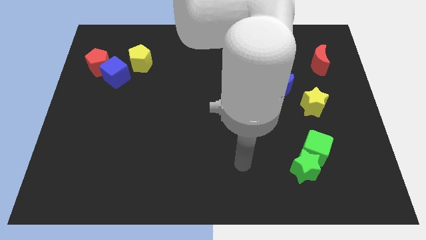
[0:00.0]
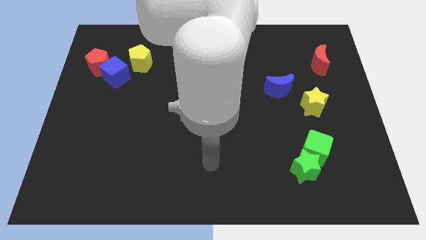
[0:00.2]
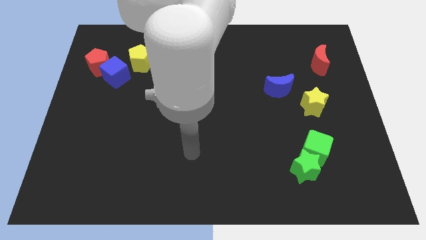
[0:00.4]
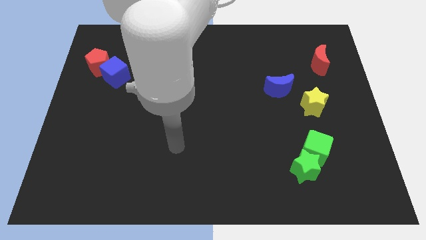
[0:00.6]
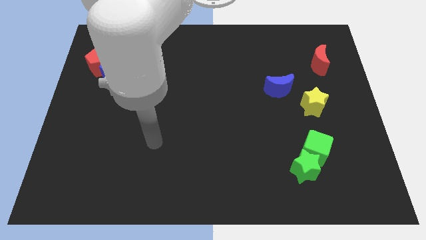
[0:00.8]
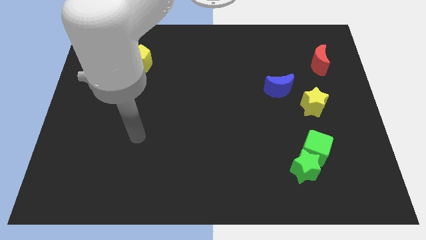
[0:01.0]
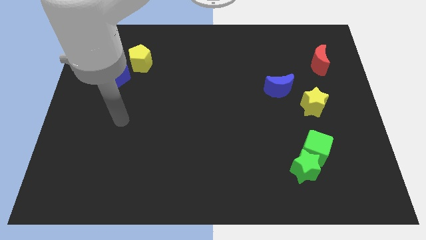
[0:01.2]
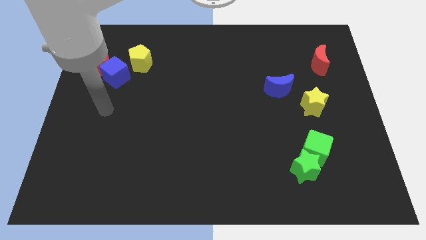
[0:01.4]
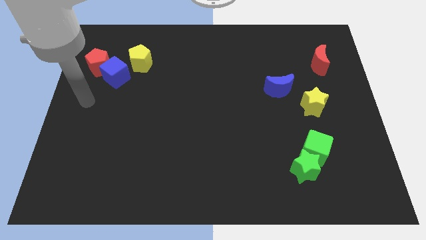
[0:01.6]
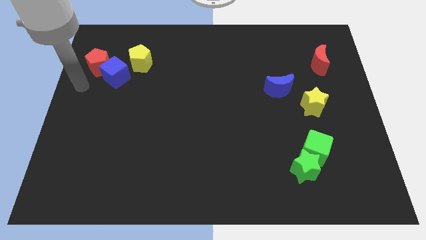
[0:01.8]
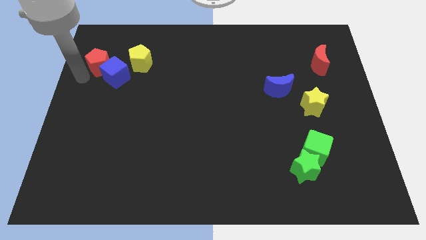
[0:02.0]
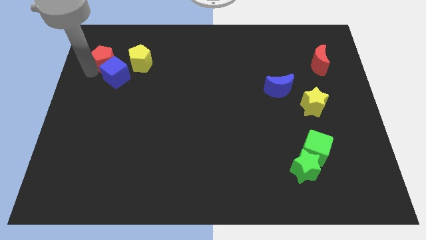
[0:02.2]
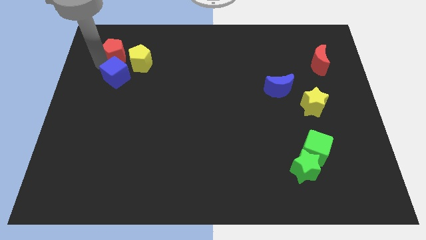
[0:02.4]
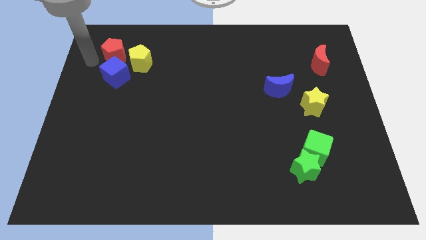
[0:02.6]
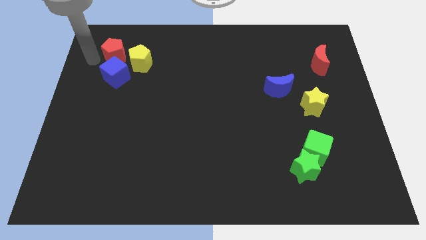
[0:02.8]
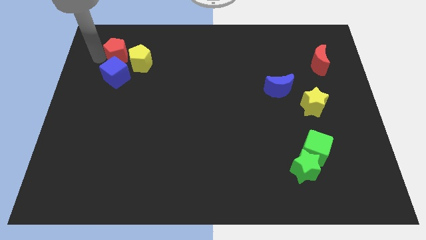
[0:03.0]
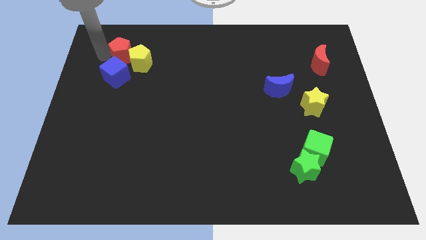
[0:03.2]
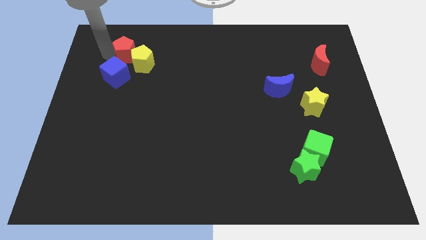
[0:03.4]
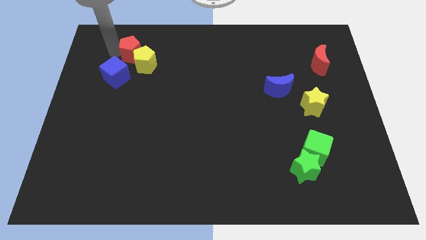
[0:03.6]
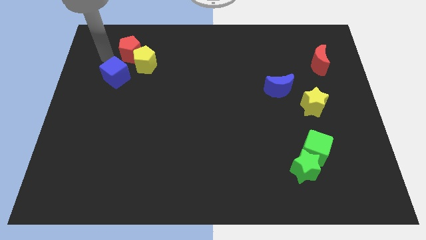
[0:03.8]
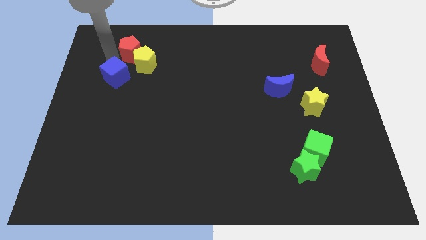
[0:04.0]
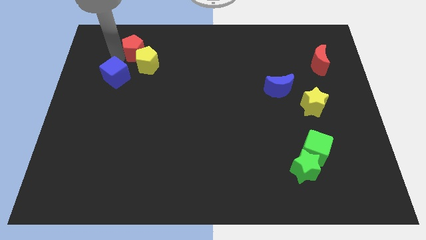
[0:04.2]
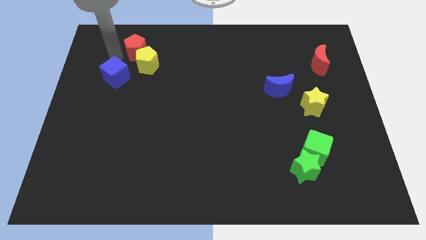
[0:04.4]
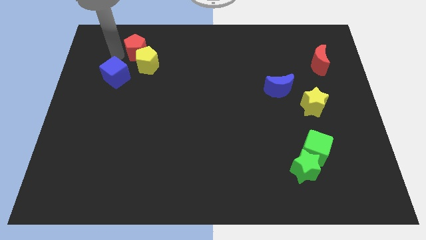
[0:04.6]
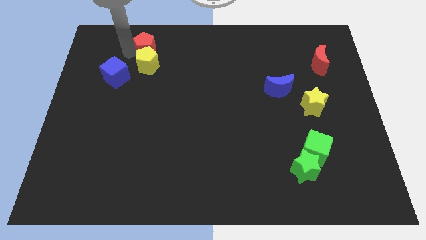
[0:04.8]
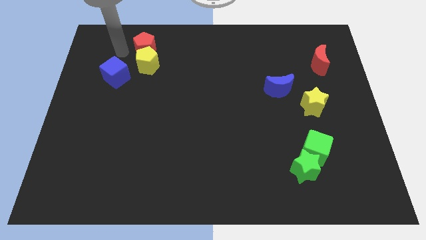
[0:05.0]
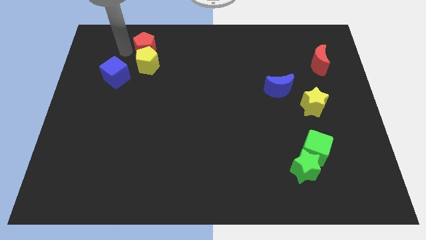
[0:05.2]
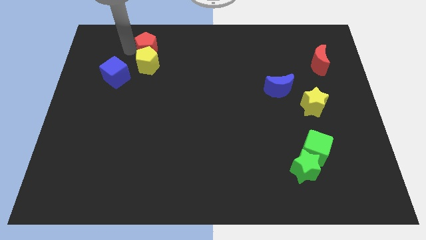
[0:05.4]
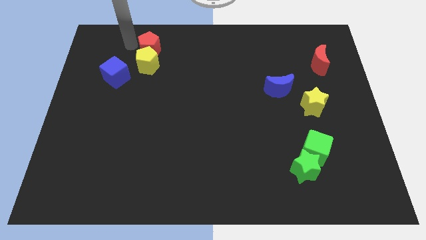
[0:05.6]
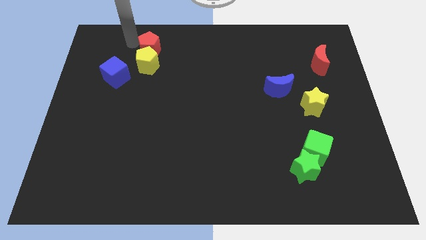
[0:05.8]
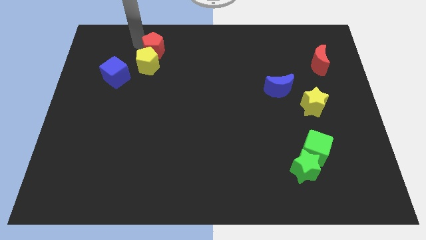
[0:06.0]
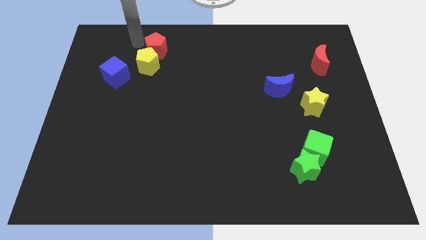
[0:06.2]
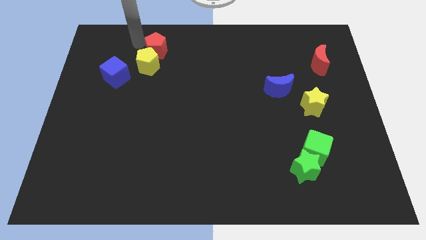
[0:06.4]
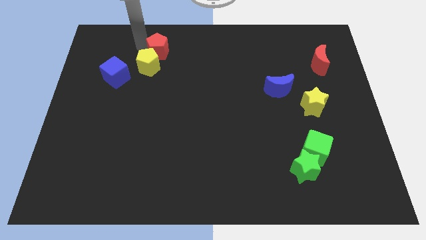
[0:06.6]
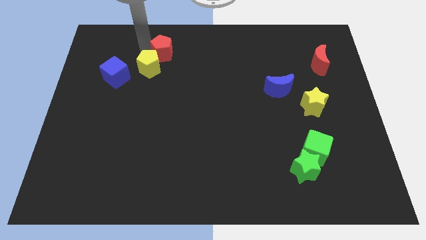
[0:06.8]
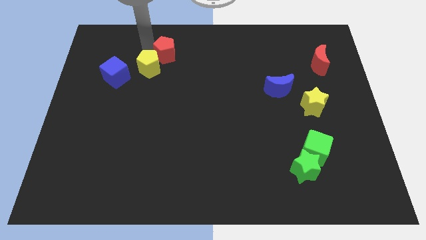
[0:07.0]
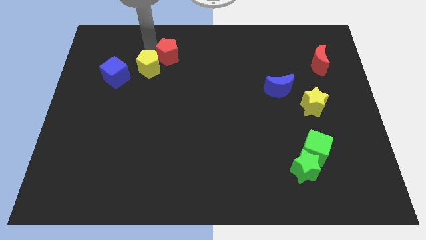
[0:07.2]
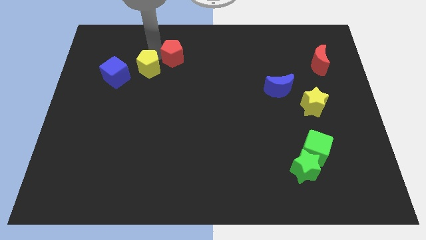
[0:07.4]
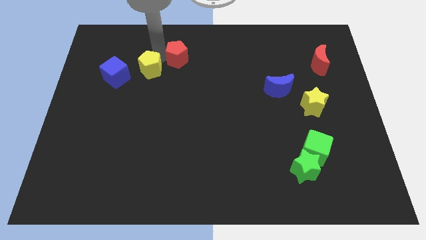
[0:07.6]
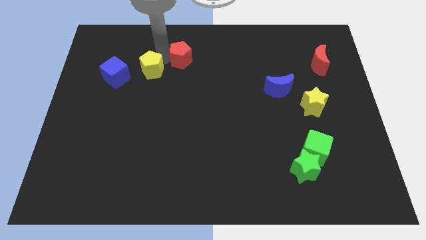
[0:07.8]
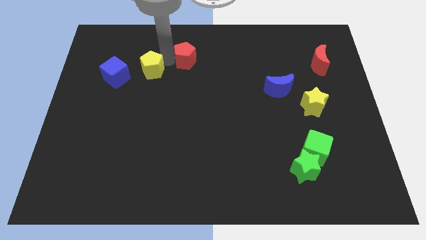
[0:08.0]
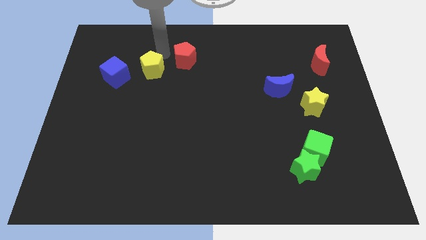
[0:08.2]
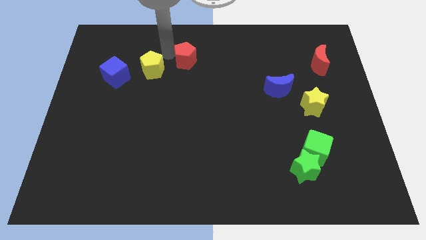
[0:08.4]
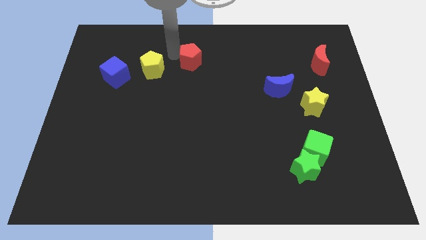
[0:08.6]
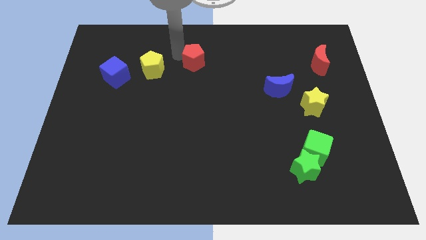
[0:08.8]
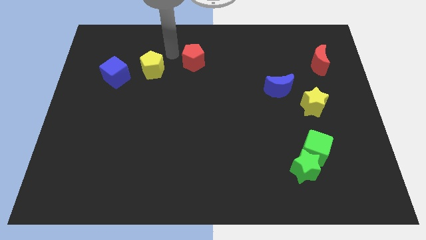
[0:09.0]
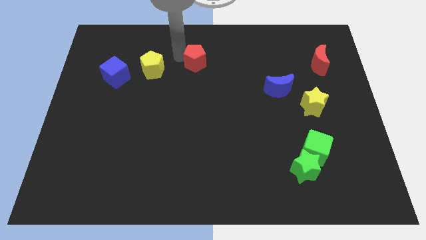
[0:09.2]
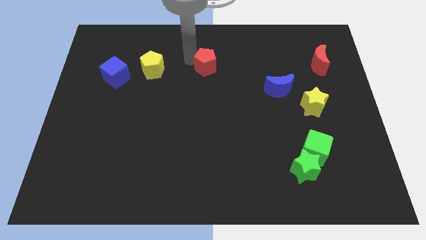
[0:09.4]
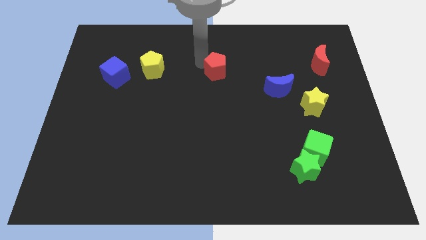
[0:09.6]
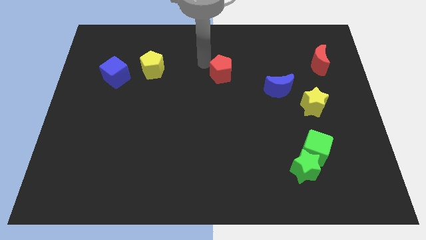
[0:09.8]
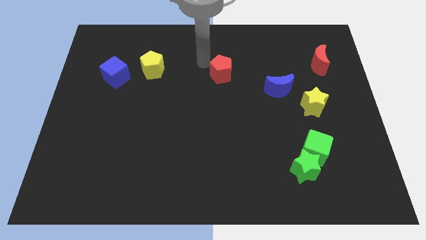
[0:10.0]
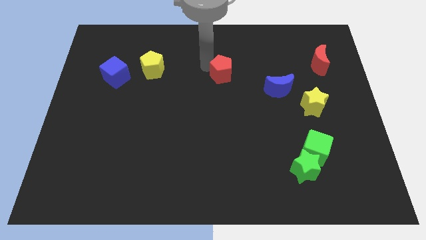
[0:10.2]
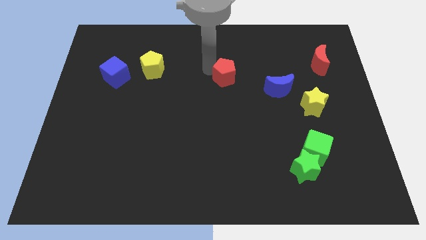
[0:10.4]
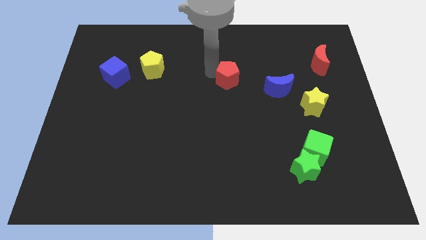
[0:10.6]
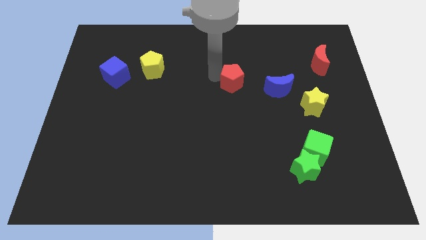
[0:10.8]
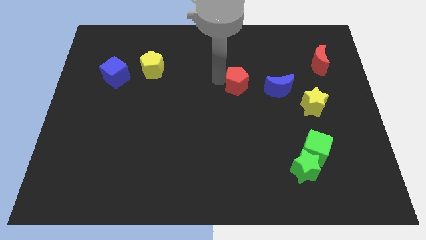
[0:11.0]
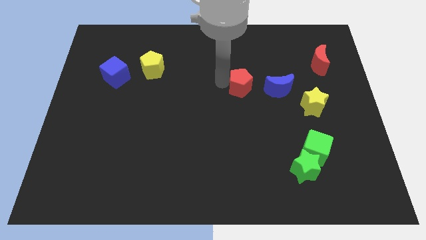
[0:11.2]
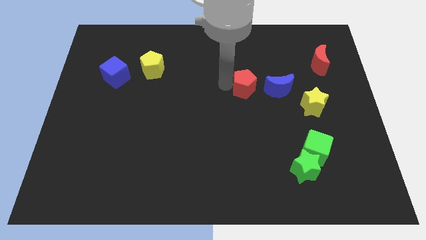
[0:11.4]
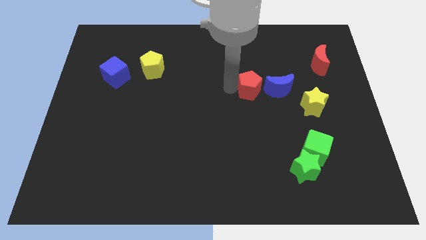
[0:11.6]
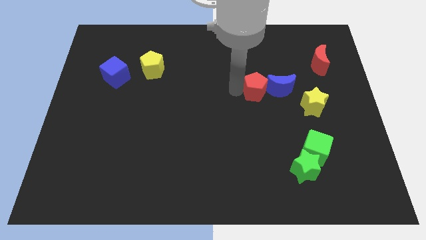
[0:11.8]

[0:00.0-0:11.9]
slide the red pentagon to the blue moon

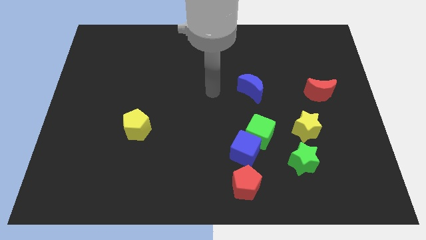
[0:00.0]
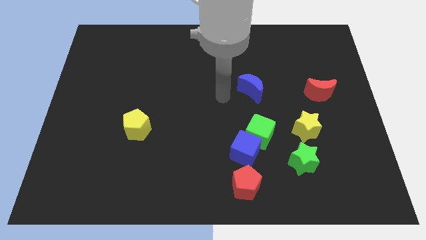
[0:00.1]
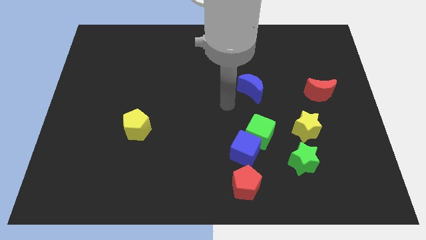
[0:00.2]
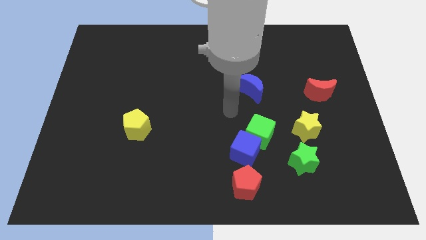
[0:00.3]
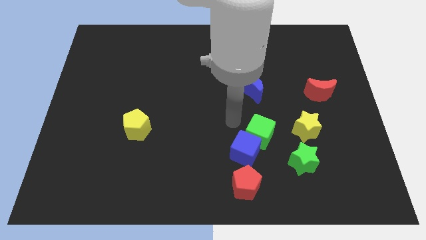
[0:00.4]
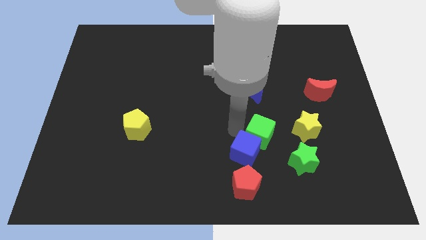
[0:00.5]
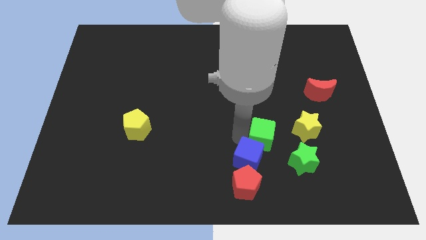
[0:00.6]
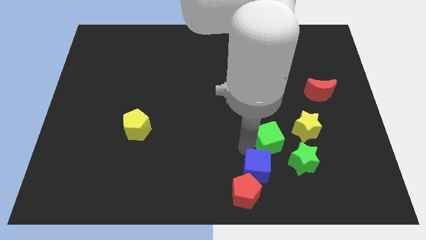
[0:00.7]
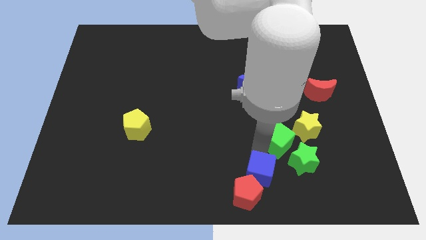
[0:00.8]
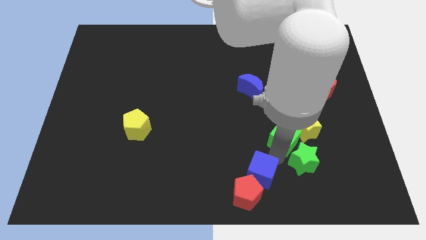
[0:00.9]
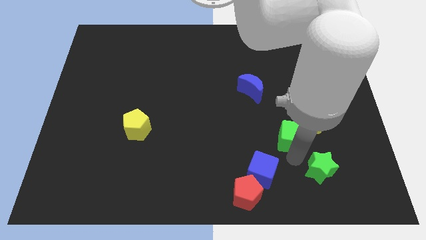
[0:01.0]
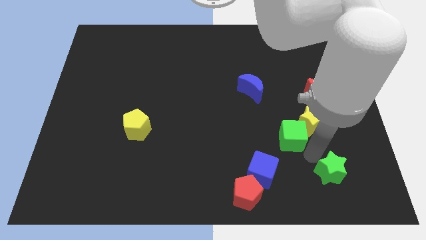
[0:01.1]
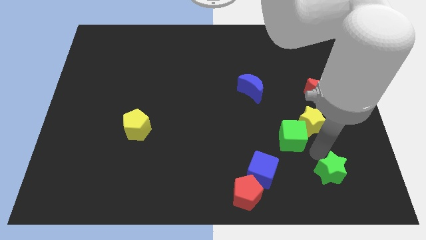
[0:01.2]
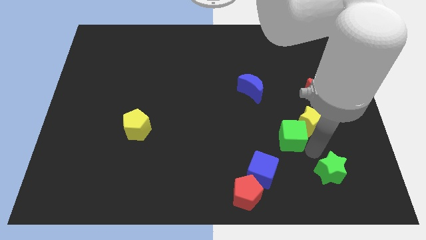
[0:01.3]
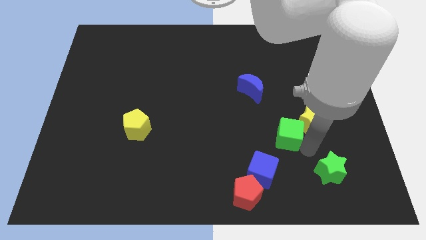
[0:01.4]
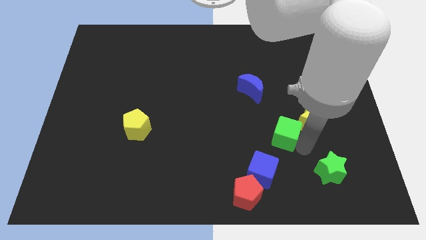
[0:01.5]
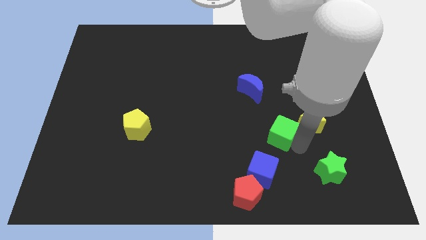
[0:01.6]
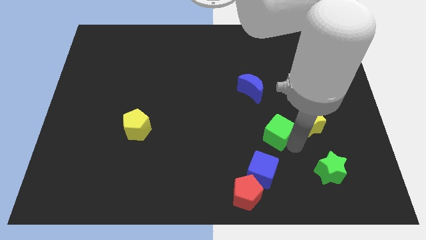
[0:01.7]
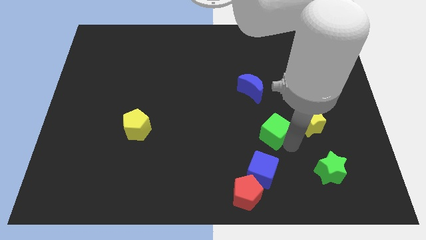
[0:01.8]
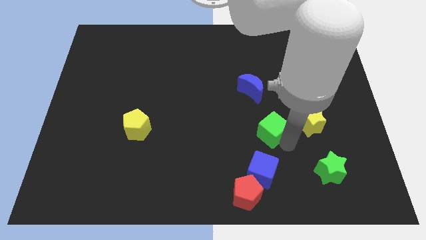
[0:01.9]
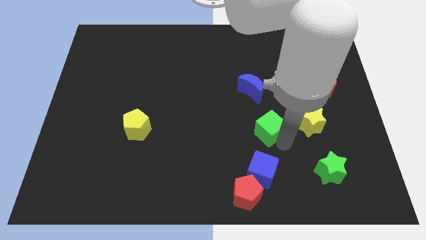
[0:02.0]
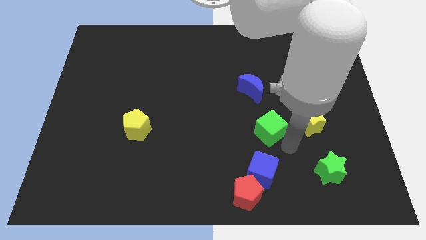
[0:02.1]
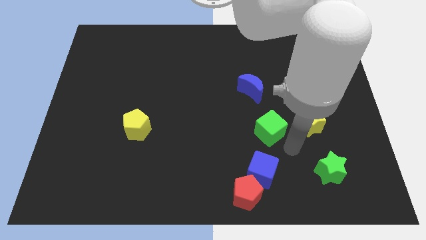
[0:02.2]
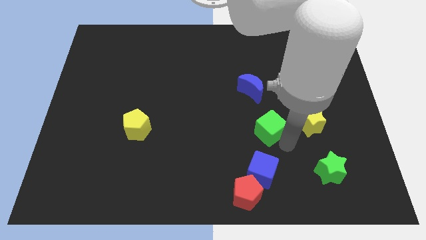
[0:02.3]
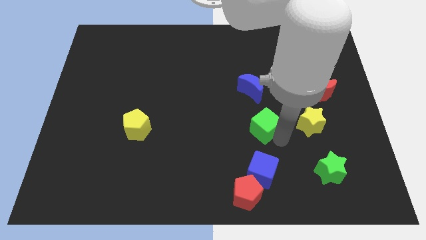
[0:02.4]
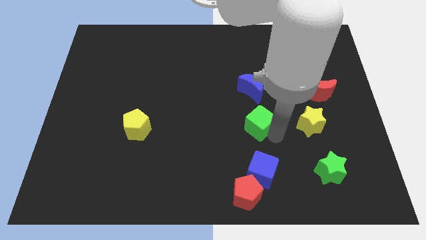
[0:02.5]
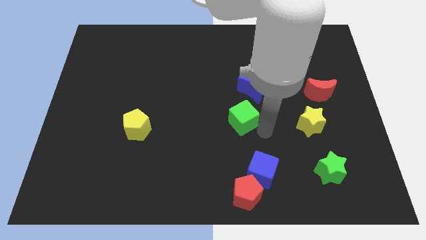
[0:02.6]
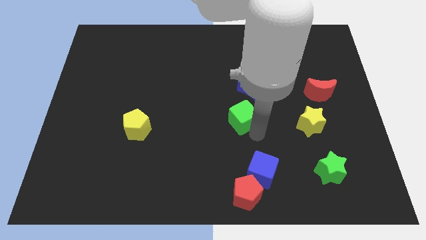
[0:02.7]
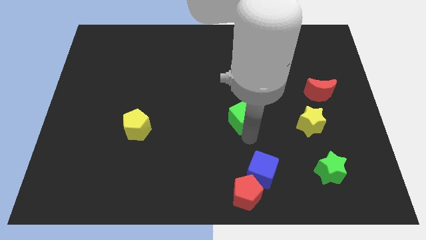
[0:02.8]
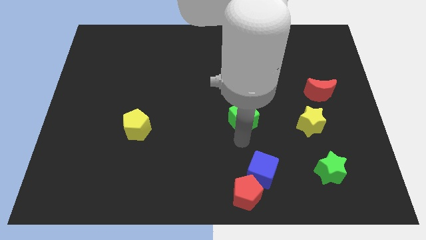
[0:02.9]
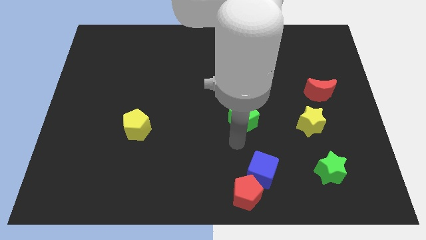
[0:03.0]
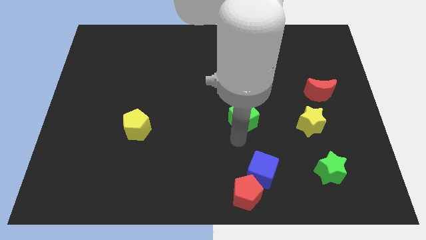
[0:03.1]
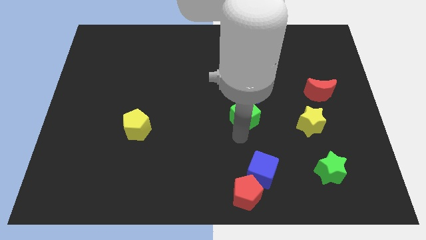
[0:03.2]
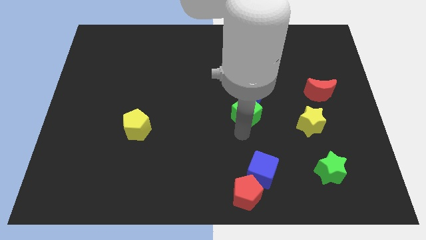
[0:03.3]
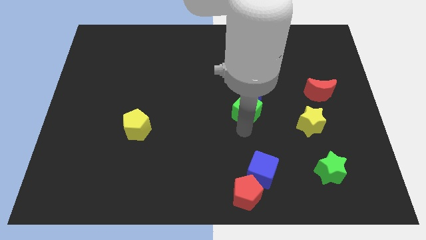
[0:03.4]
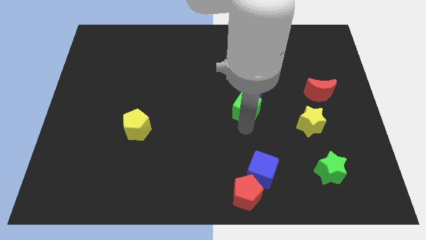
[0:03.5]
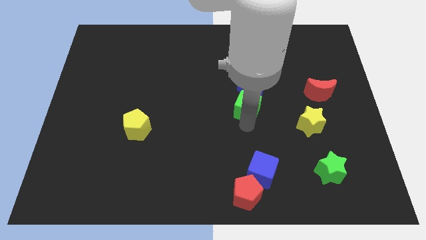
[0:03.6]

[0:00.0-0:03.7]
put the green cube towards the blue moon
